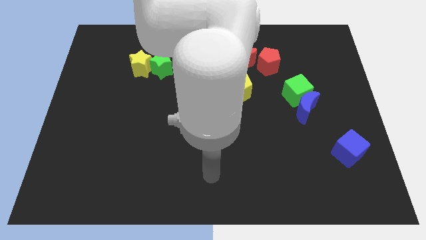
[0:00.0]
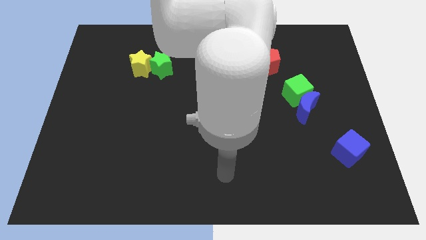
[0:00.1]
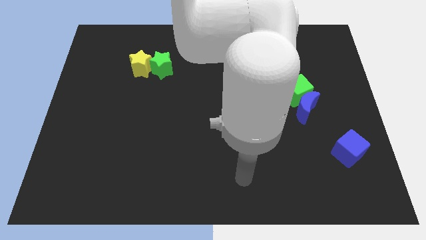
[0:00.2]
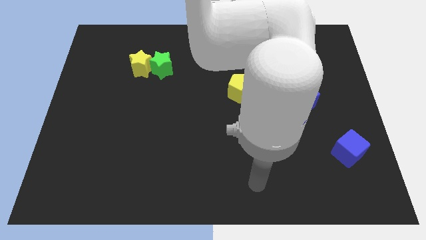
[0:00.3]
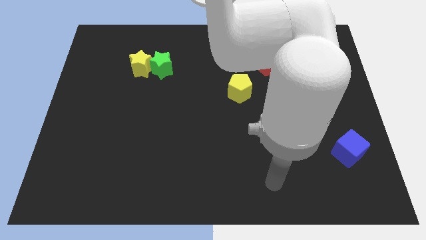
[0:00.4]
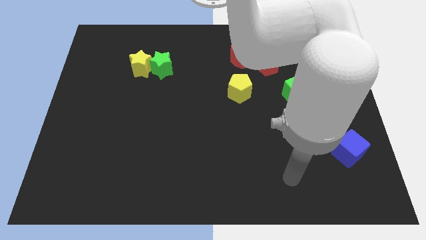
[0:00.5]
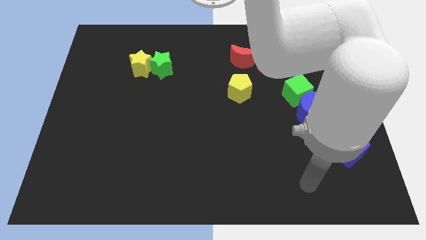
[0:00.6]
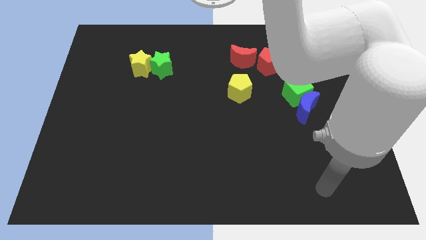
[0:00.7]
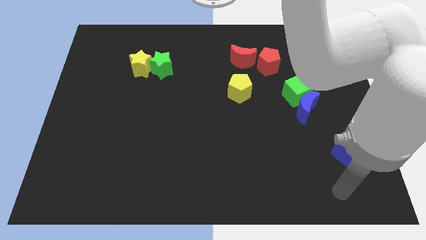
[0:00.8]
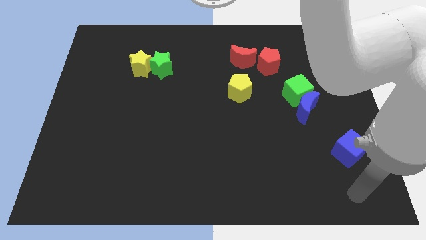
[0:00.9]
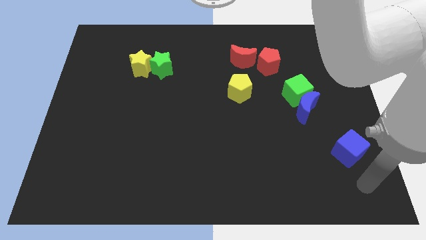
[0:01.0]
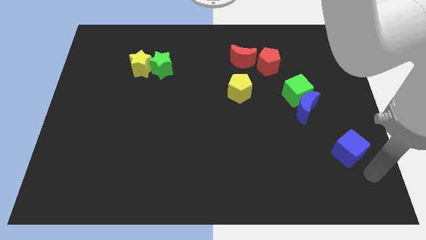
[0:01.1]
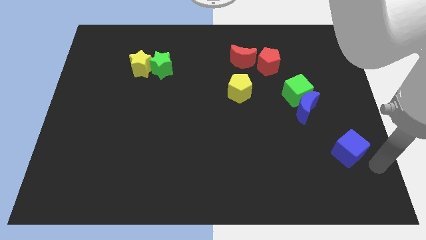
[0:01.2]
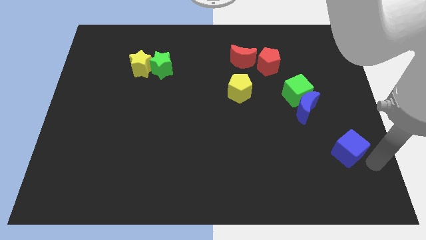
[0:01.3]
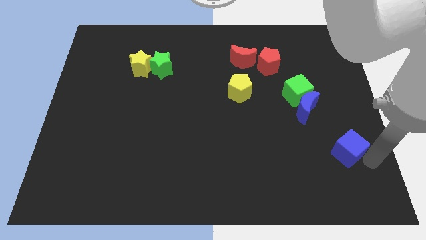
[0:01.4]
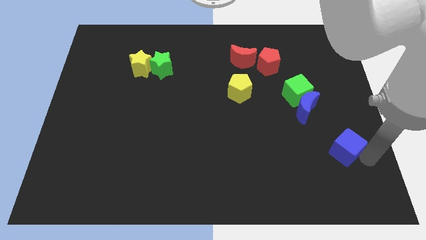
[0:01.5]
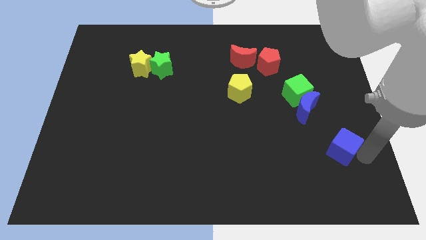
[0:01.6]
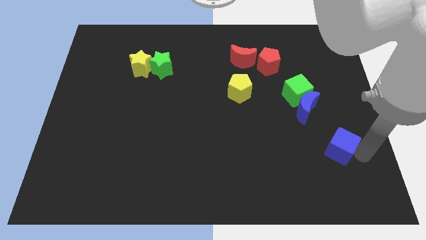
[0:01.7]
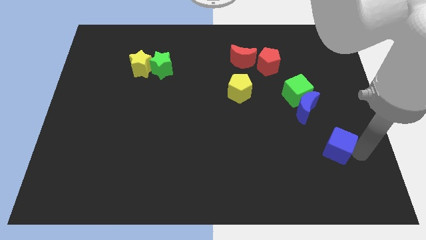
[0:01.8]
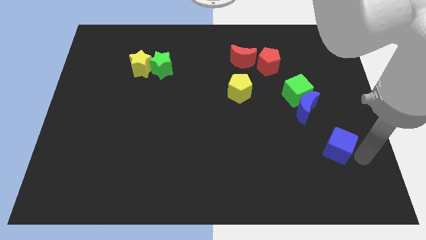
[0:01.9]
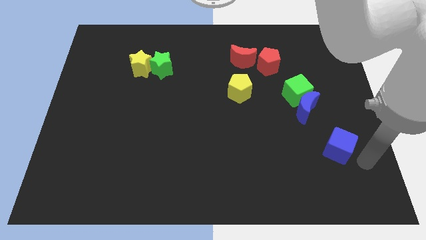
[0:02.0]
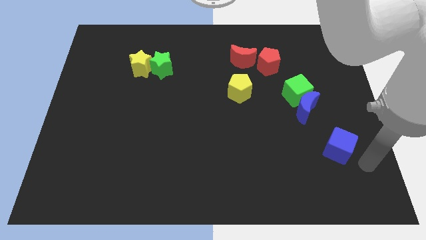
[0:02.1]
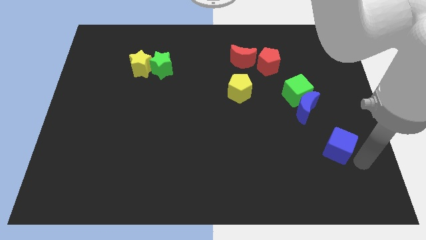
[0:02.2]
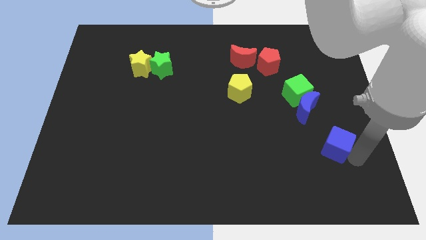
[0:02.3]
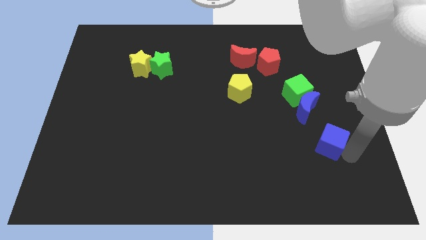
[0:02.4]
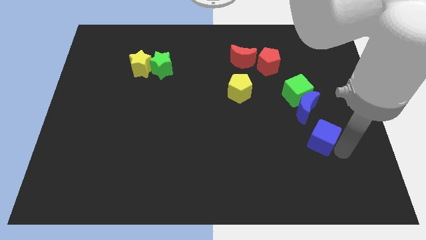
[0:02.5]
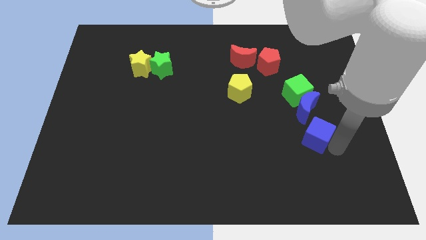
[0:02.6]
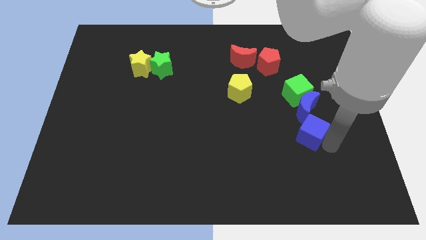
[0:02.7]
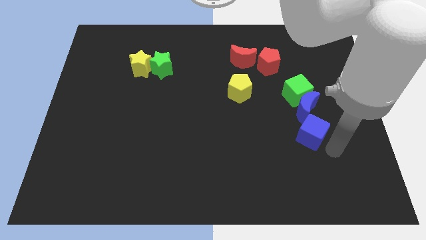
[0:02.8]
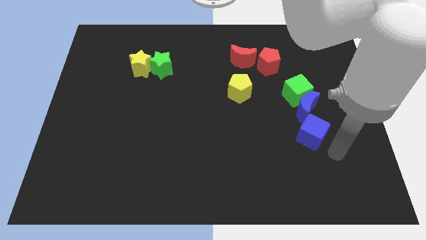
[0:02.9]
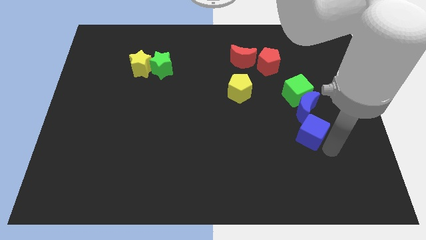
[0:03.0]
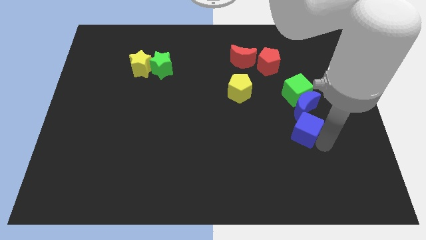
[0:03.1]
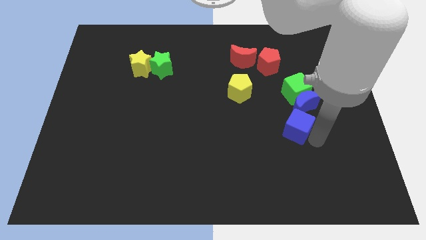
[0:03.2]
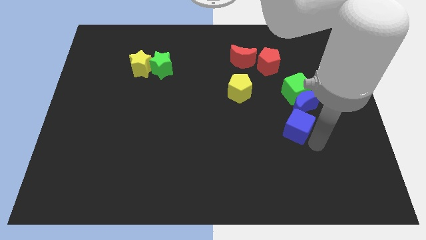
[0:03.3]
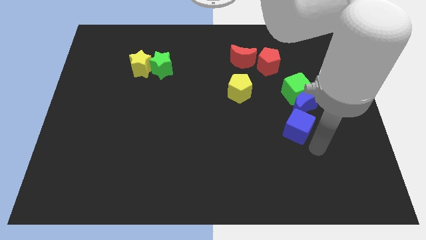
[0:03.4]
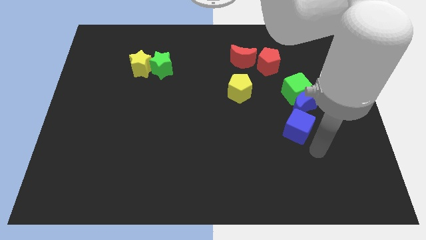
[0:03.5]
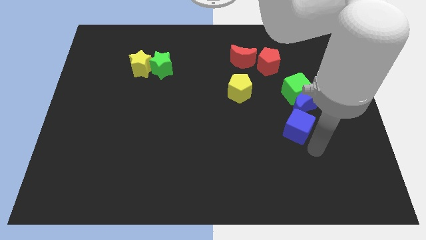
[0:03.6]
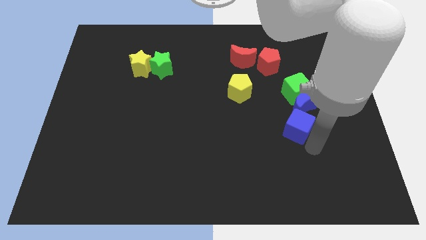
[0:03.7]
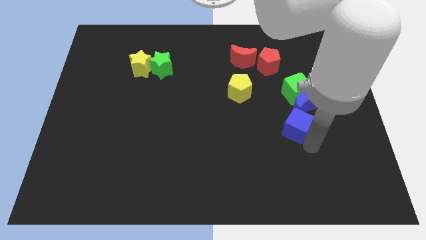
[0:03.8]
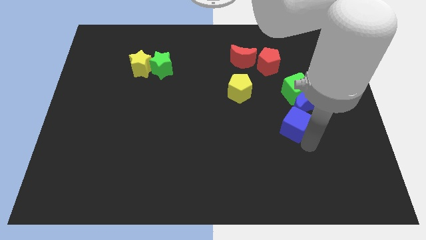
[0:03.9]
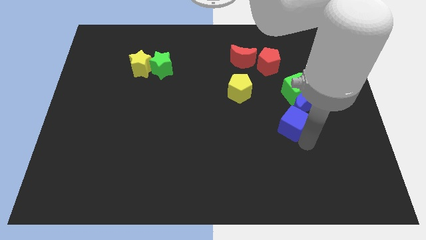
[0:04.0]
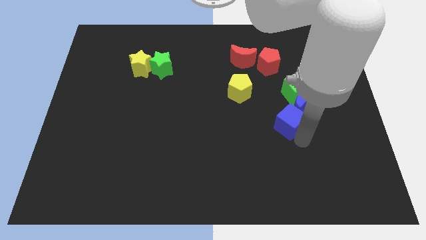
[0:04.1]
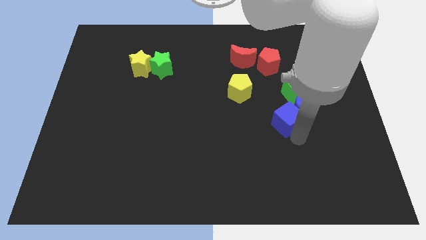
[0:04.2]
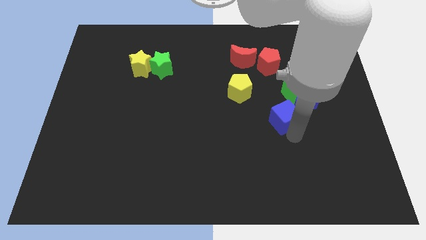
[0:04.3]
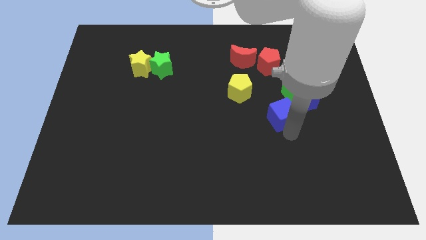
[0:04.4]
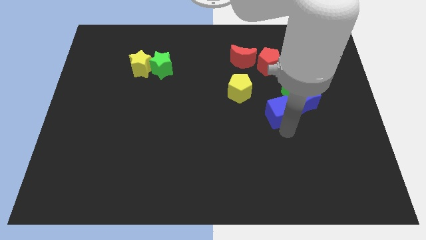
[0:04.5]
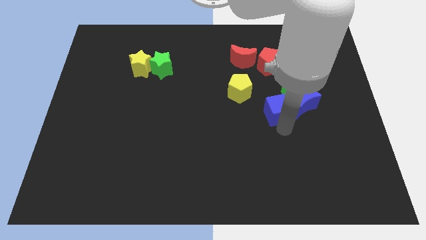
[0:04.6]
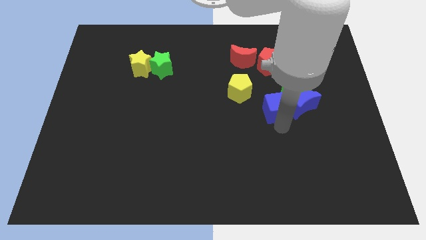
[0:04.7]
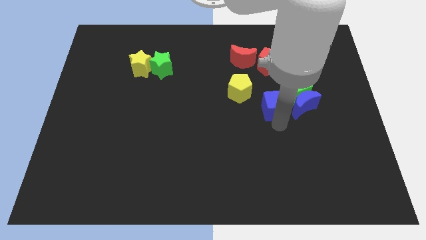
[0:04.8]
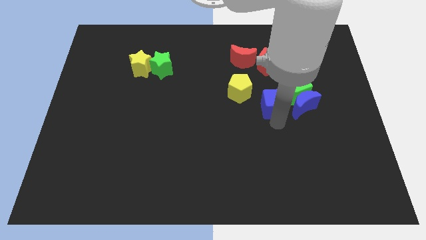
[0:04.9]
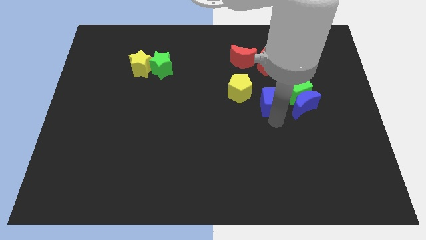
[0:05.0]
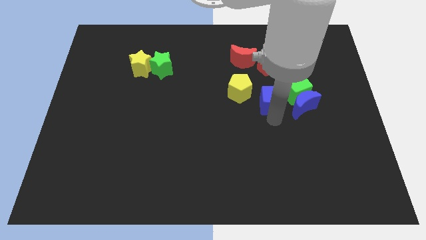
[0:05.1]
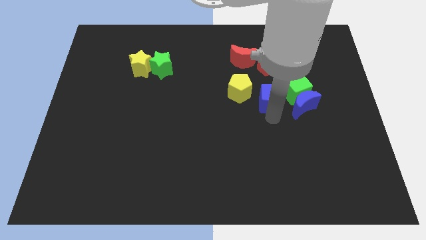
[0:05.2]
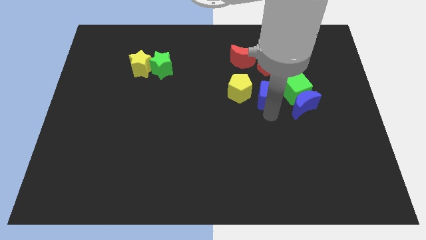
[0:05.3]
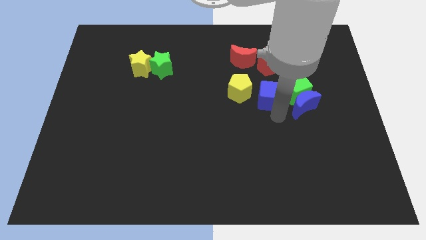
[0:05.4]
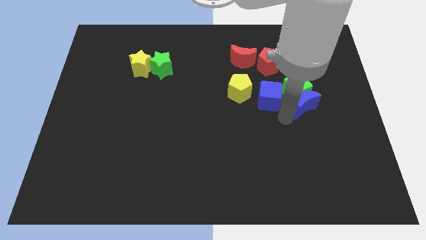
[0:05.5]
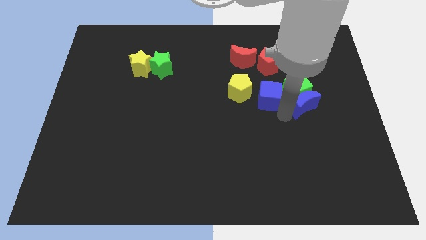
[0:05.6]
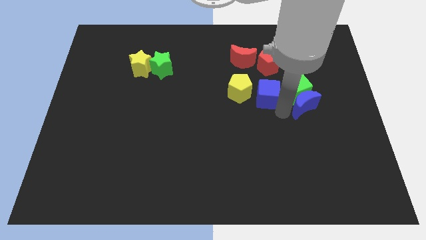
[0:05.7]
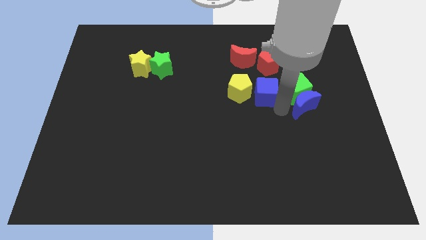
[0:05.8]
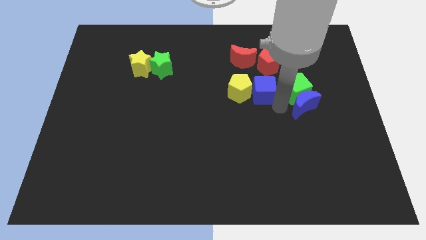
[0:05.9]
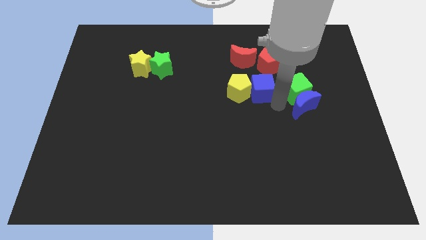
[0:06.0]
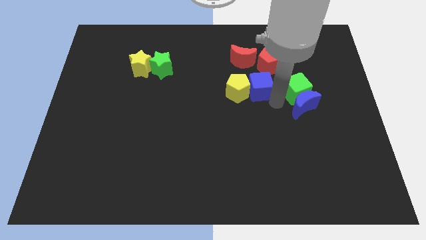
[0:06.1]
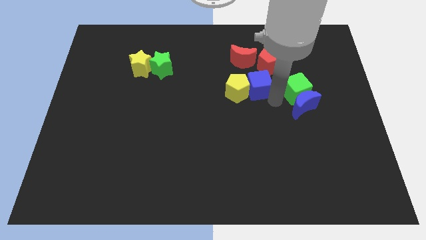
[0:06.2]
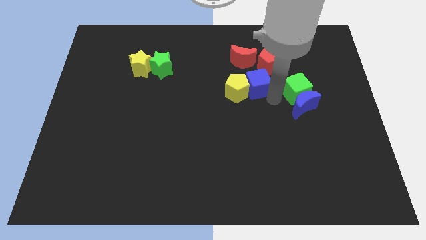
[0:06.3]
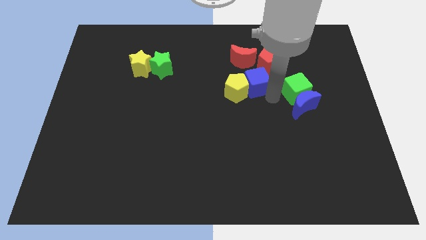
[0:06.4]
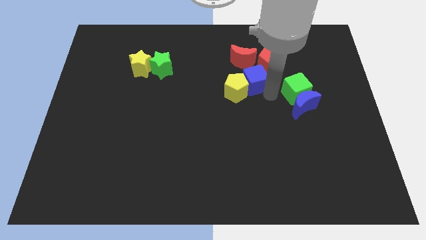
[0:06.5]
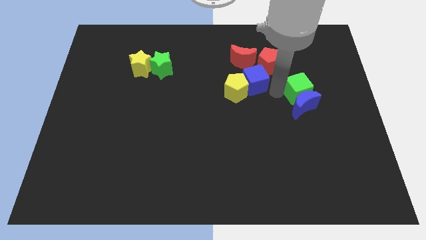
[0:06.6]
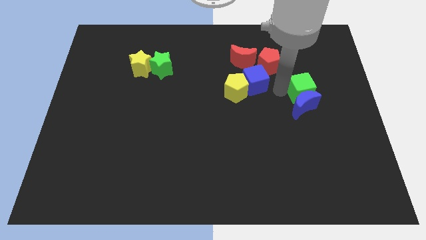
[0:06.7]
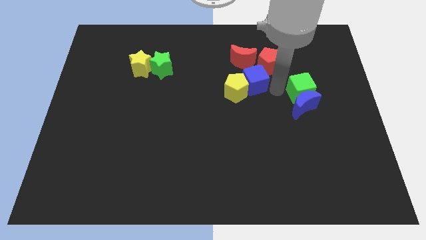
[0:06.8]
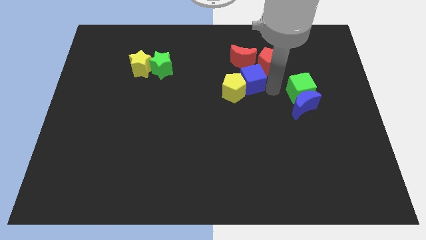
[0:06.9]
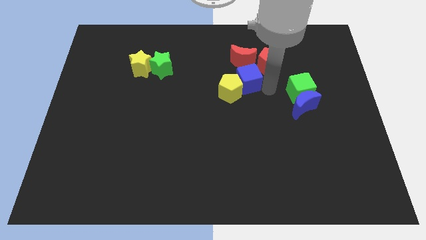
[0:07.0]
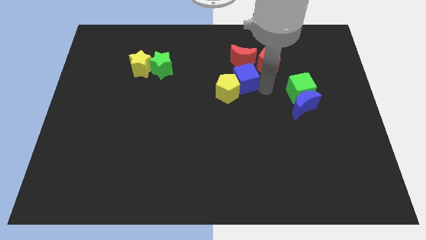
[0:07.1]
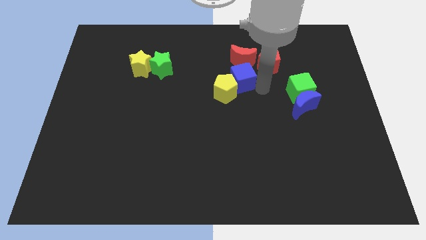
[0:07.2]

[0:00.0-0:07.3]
slide the blue cube diagonally down and to the left of the red moon

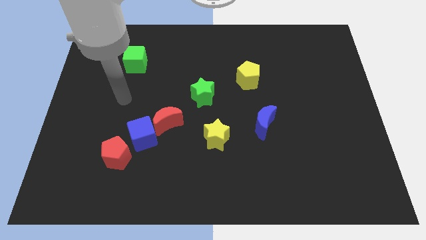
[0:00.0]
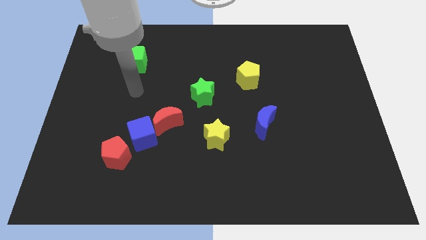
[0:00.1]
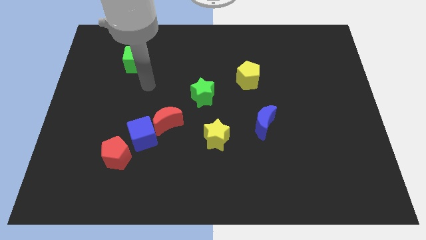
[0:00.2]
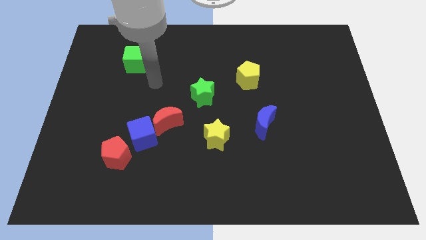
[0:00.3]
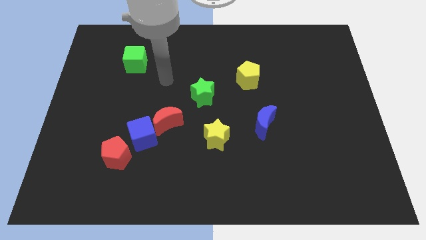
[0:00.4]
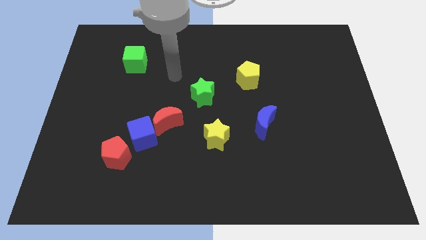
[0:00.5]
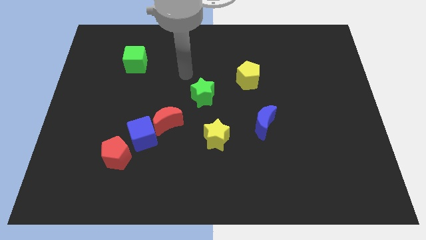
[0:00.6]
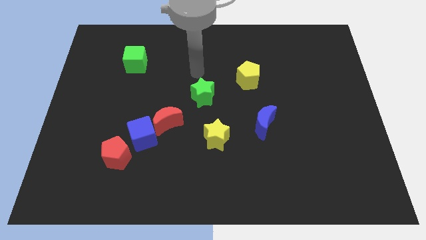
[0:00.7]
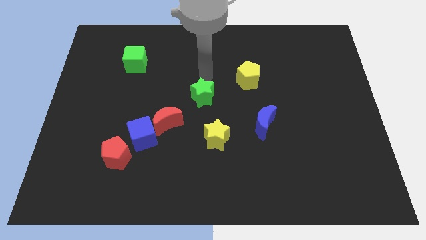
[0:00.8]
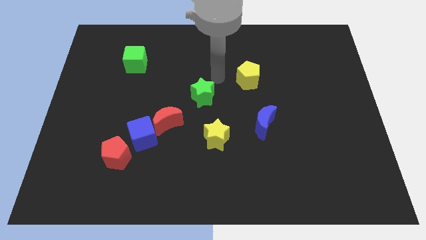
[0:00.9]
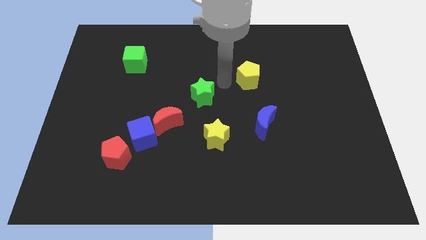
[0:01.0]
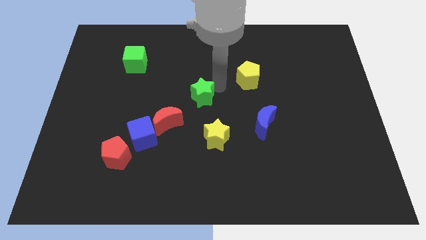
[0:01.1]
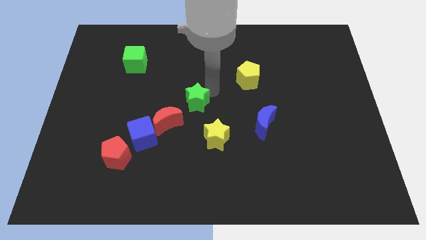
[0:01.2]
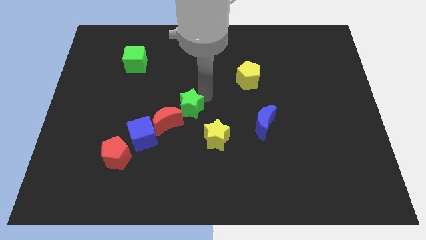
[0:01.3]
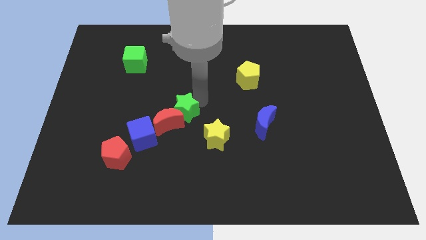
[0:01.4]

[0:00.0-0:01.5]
push the green star to the top right of the blue cube
